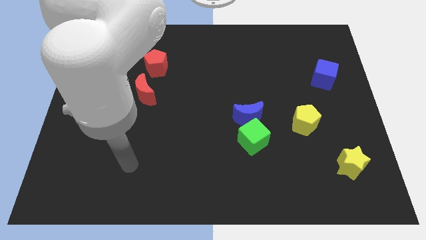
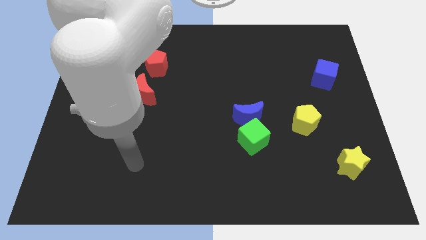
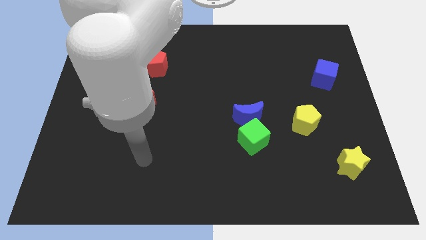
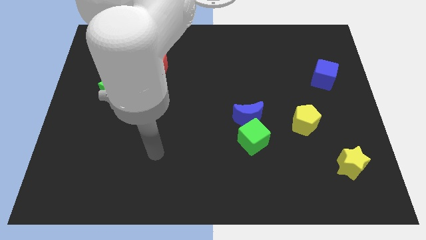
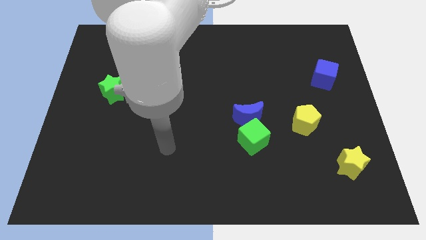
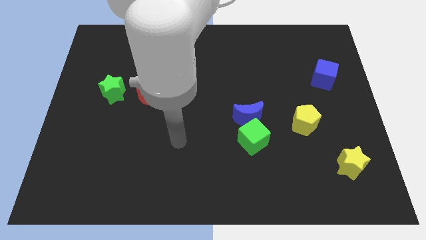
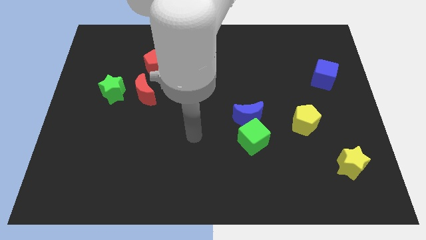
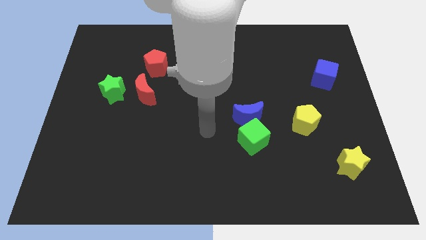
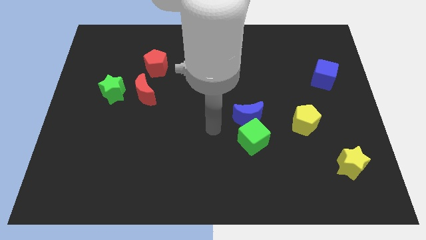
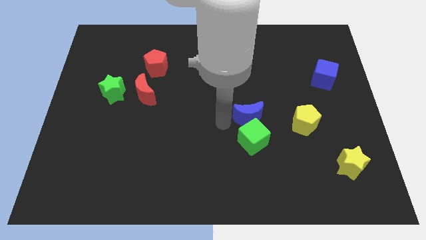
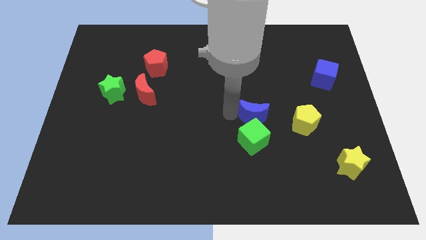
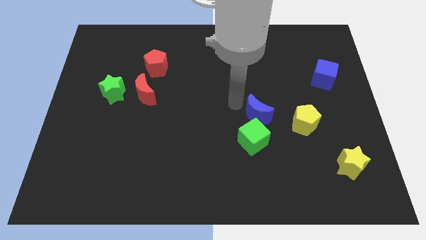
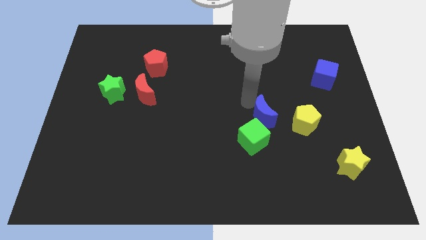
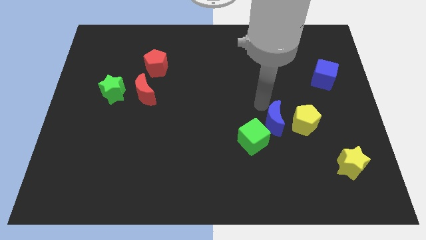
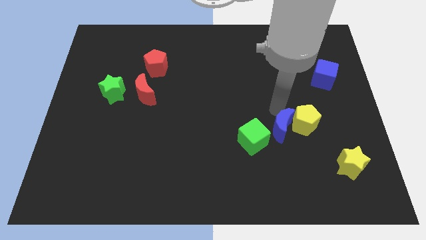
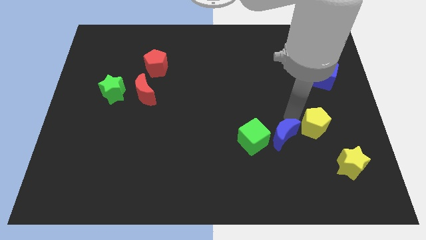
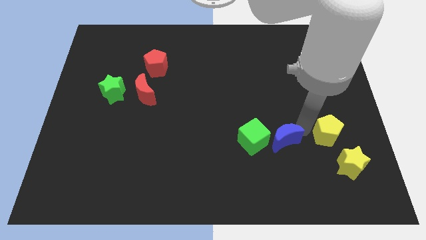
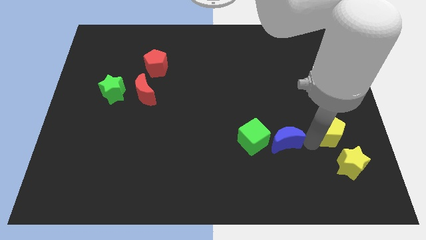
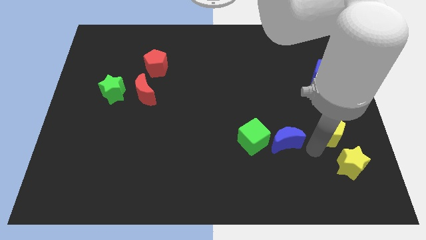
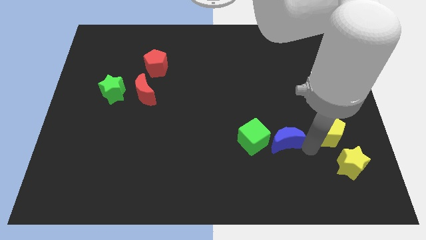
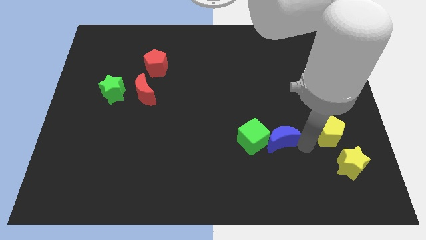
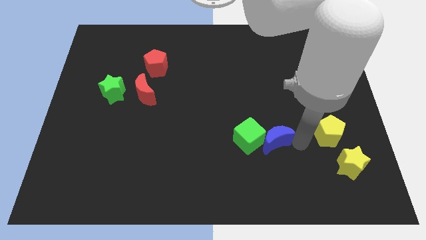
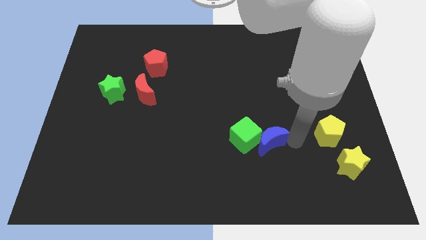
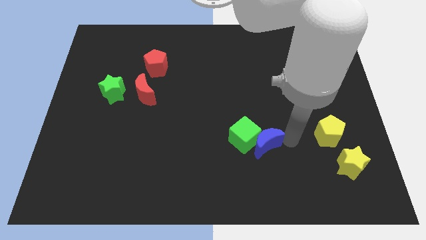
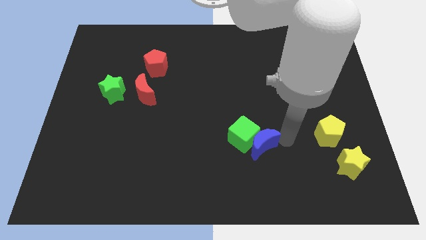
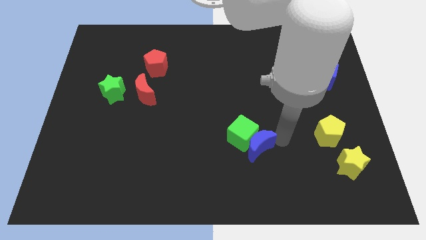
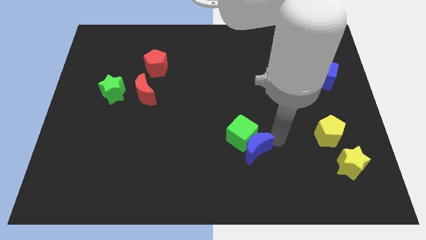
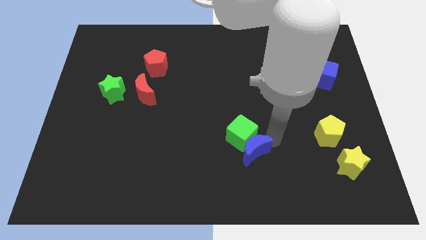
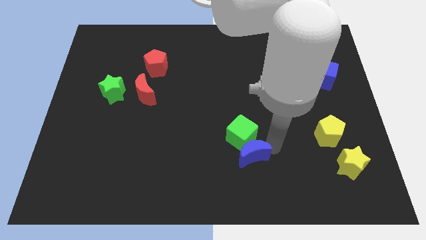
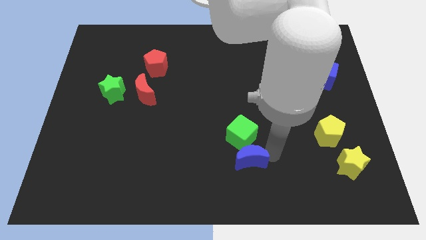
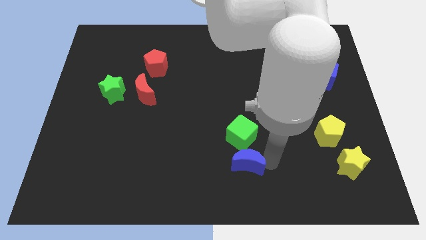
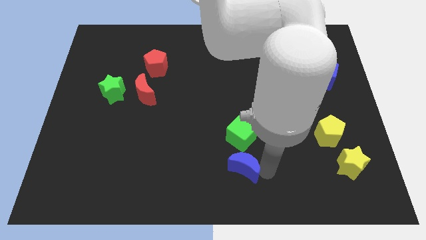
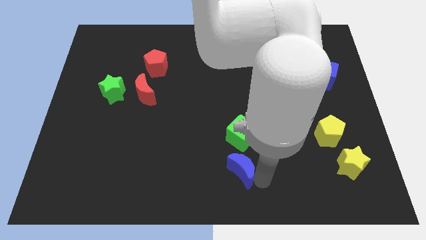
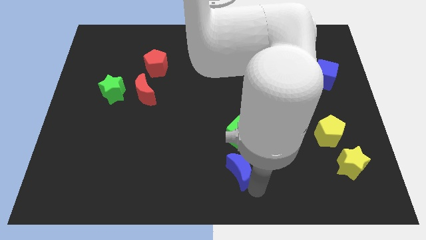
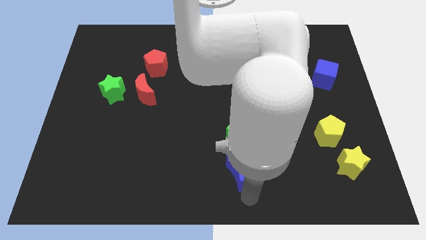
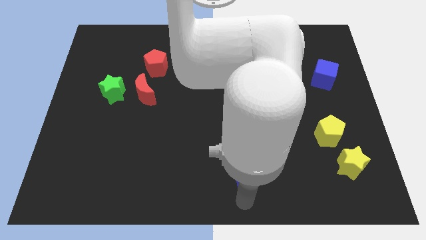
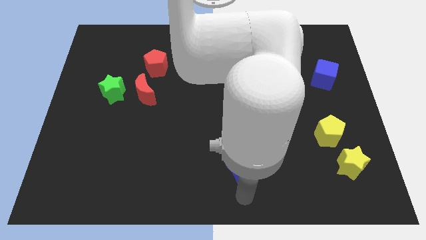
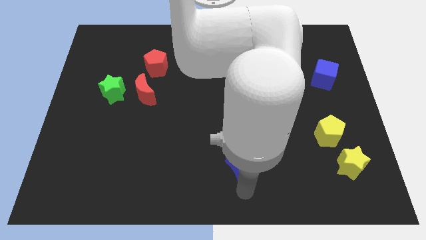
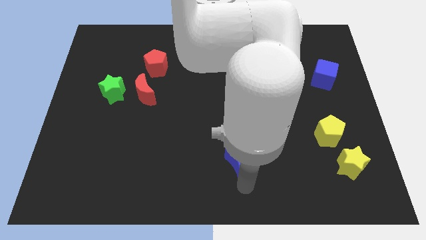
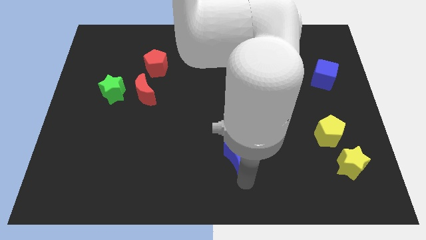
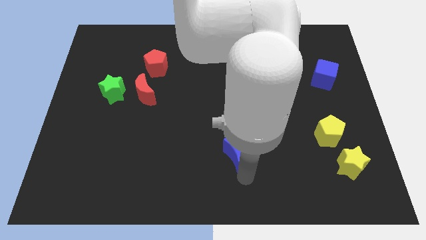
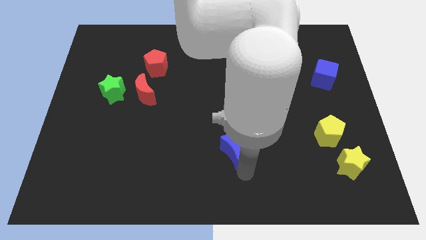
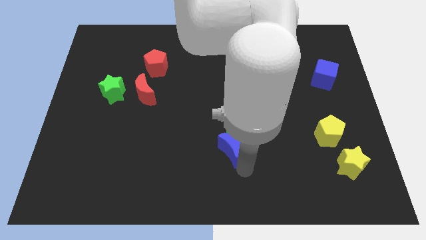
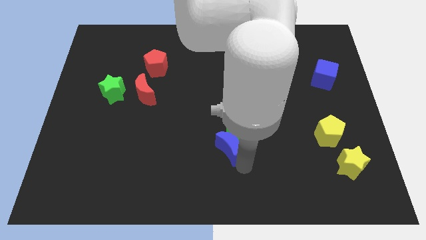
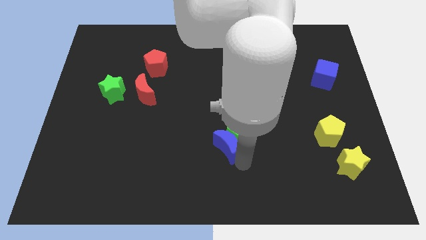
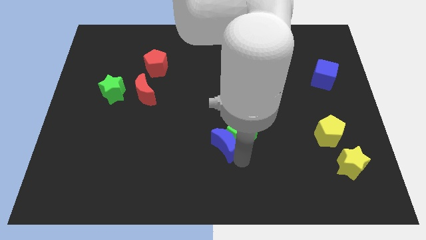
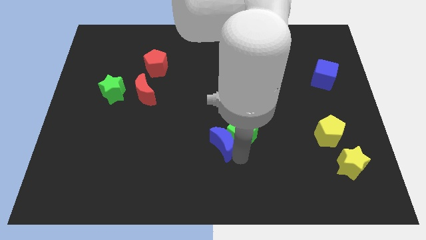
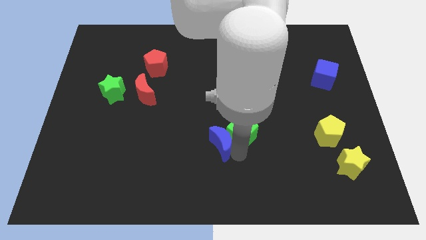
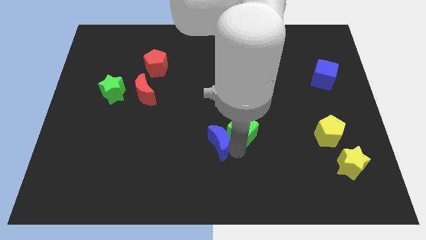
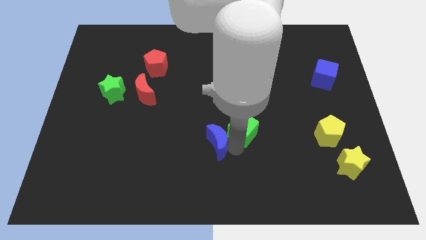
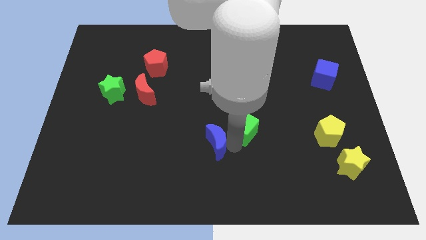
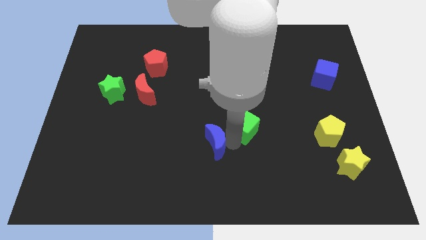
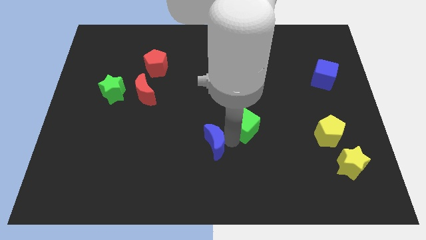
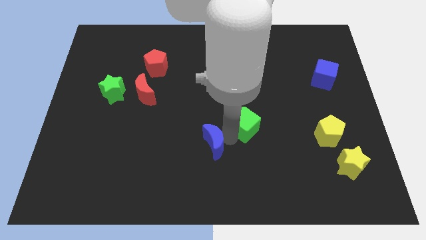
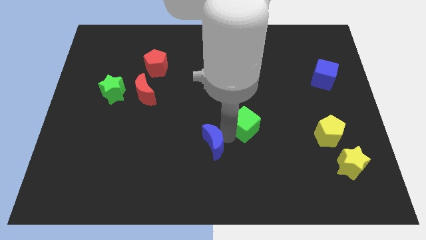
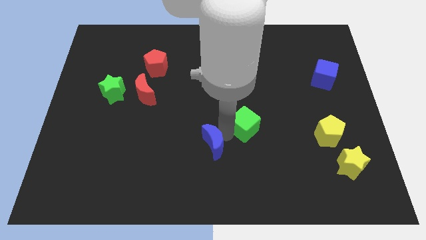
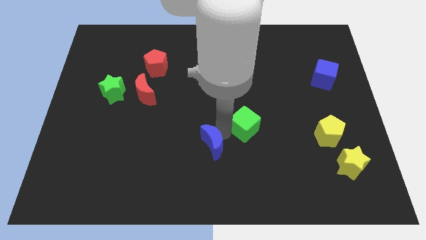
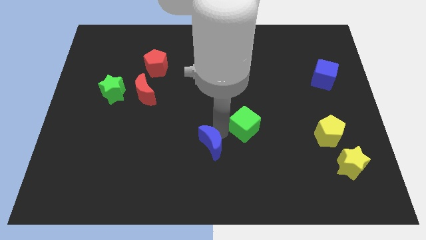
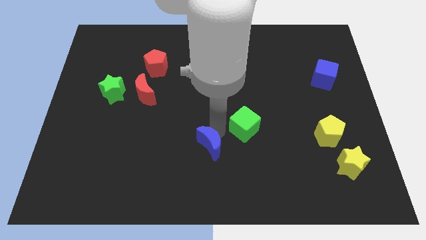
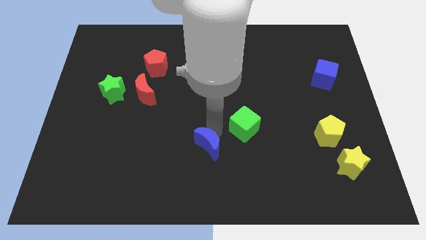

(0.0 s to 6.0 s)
push the blue moon a little bit to the left

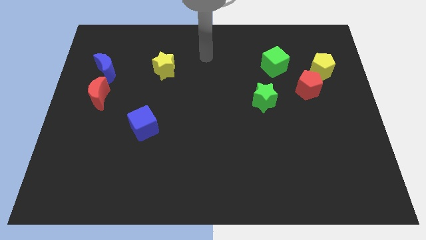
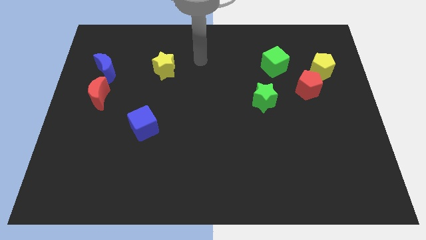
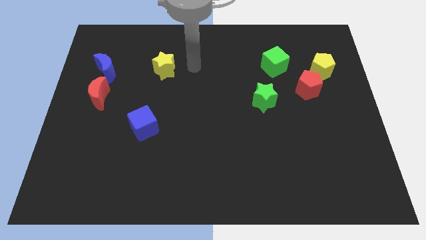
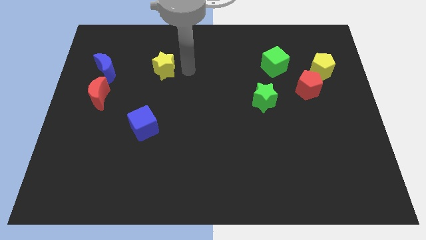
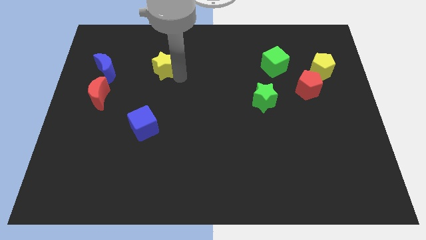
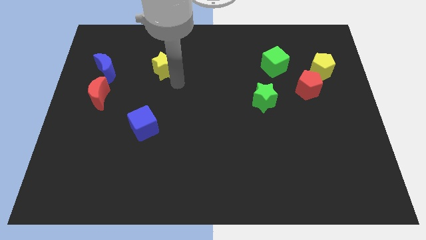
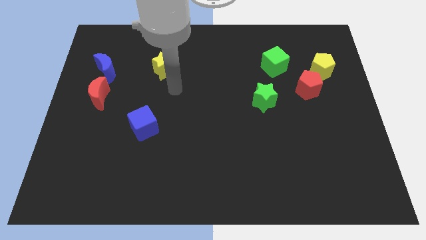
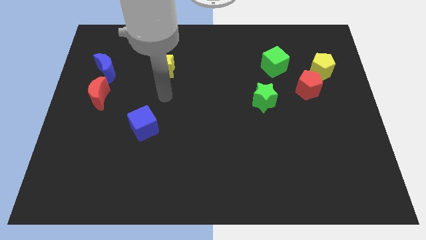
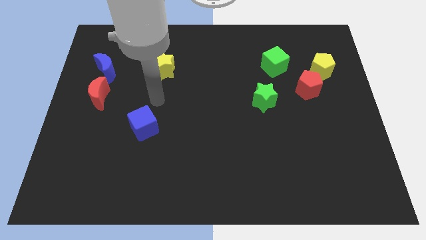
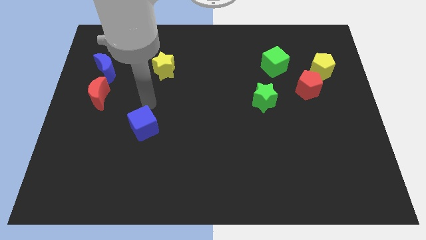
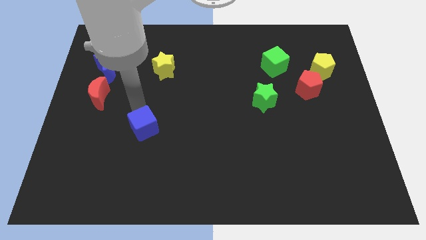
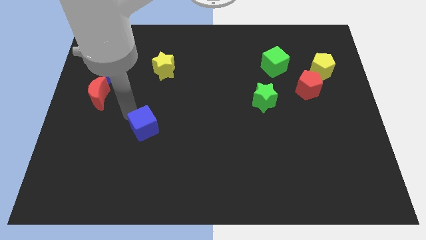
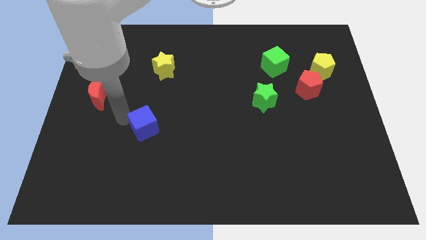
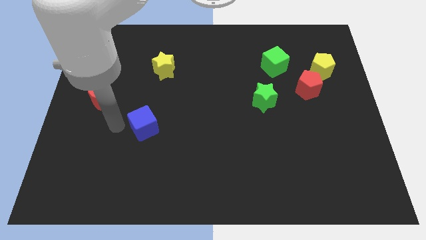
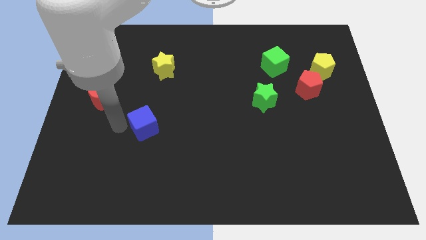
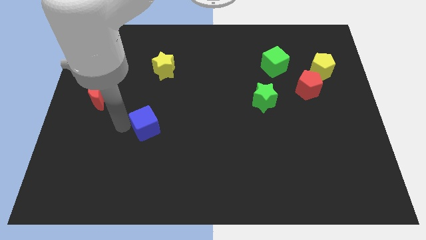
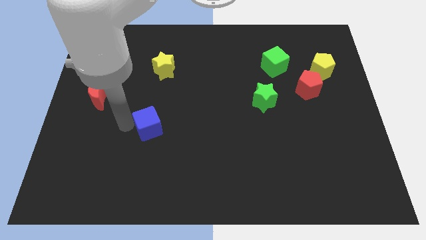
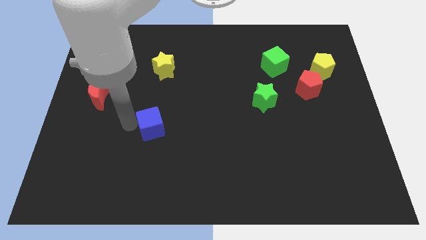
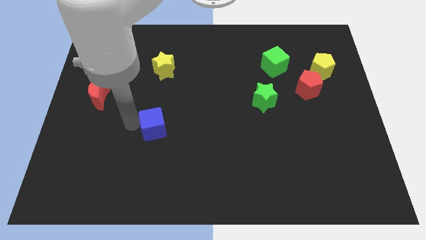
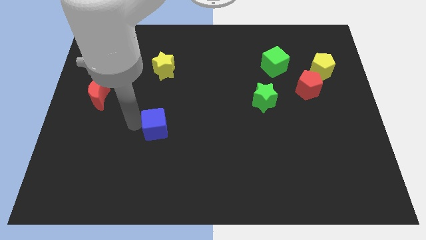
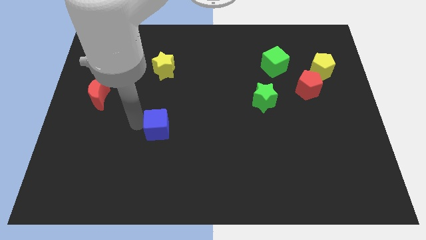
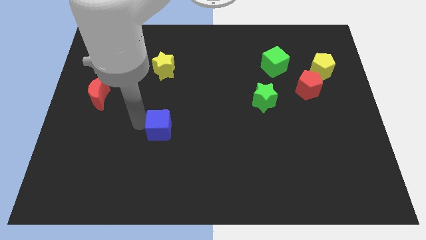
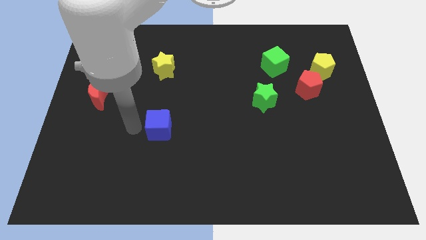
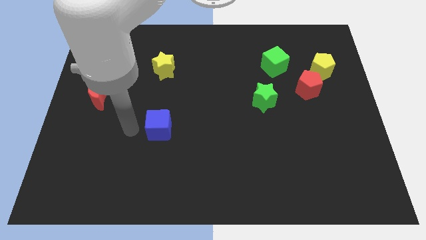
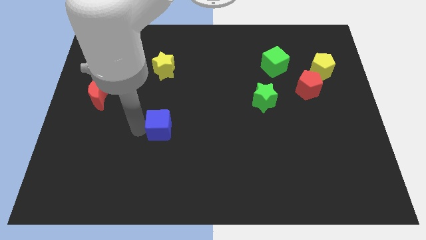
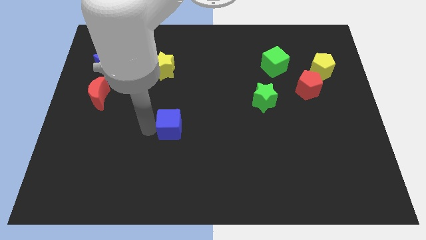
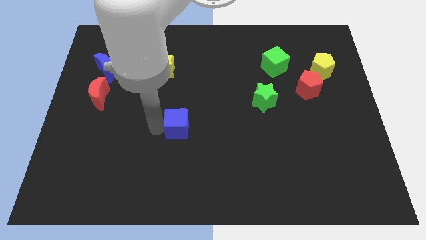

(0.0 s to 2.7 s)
push the blue cube to the right a little bit
